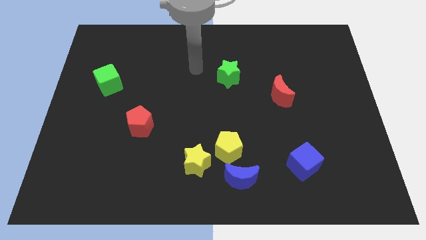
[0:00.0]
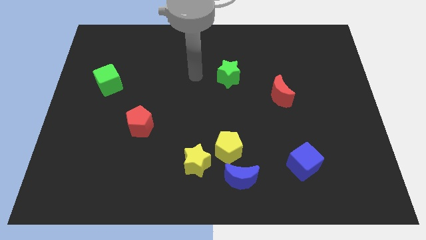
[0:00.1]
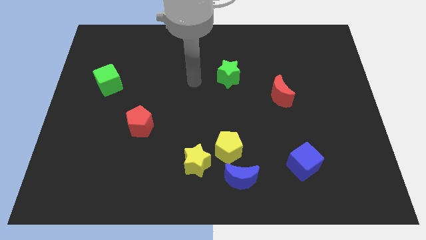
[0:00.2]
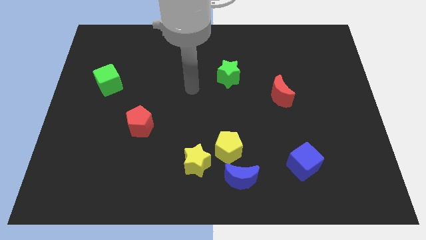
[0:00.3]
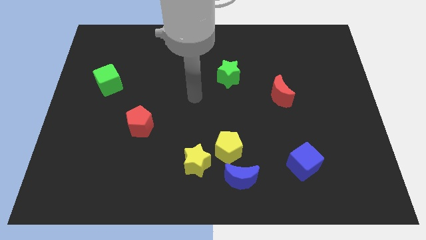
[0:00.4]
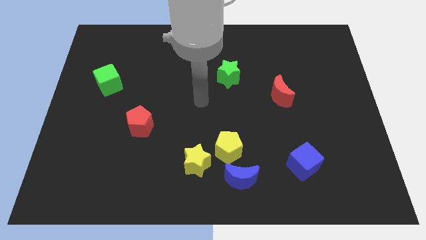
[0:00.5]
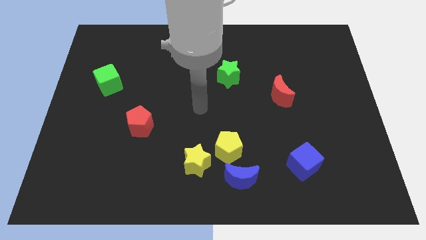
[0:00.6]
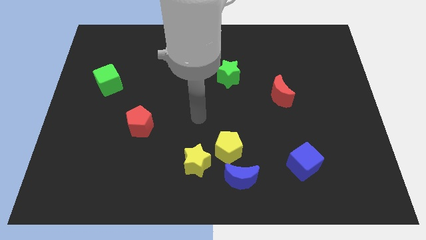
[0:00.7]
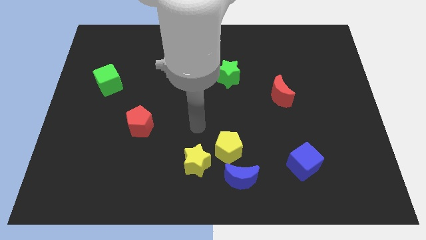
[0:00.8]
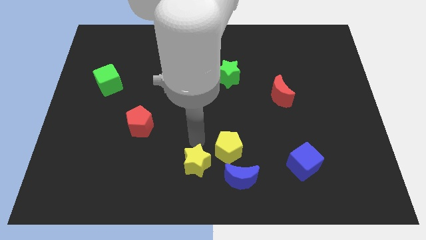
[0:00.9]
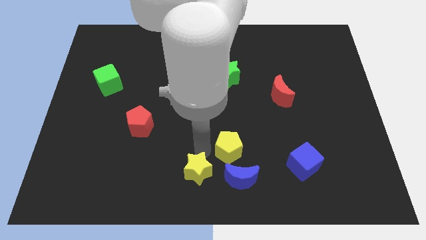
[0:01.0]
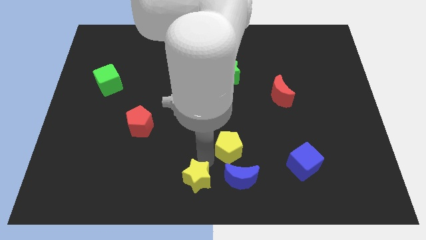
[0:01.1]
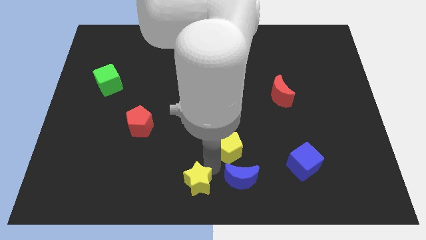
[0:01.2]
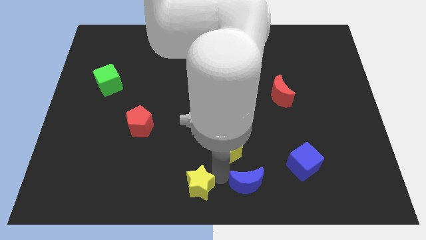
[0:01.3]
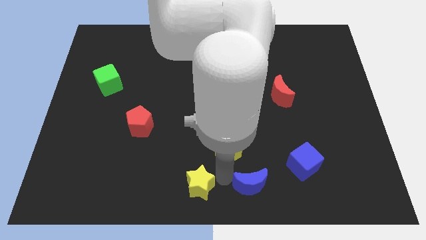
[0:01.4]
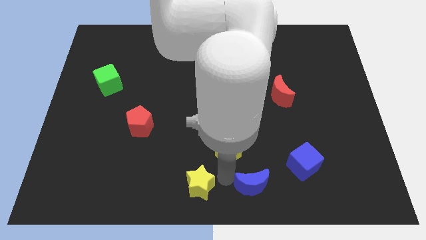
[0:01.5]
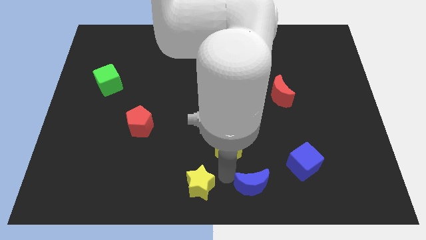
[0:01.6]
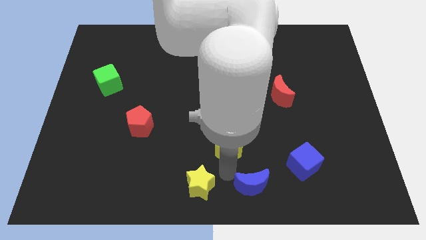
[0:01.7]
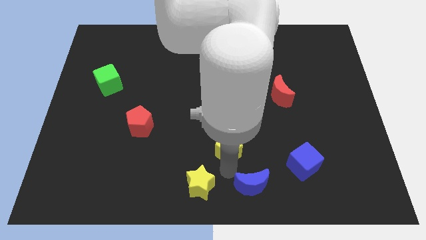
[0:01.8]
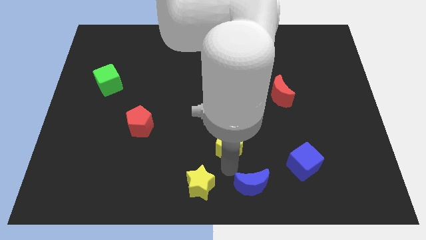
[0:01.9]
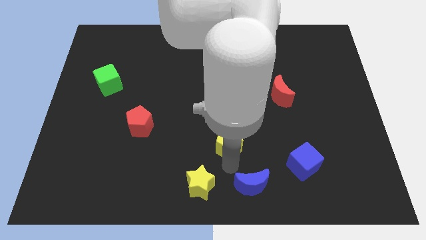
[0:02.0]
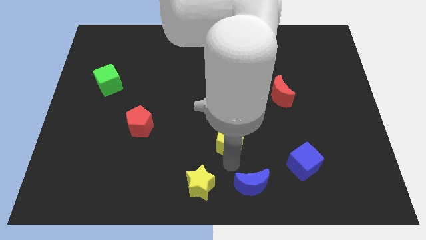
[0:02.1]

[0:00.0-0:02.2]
separate the yellow pentagon from the blue moon and yellow star

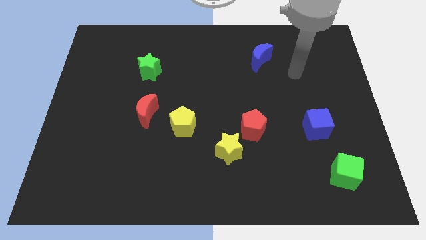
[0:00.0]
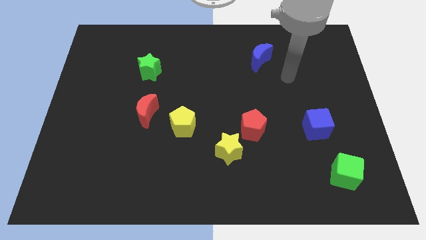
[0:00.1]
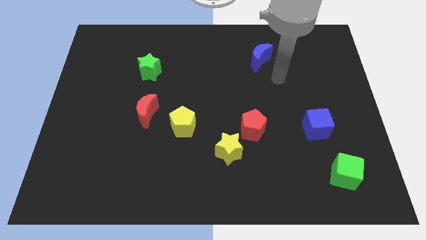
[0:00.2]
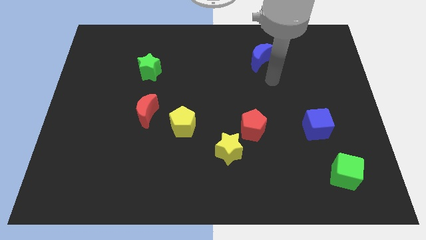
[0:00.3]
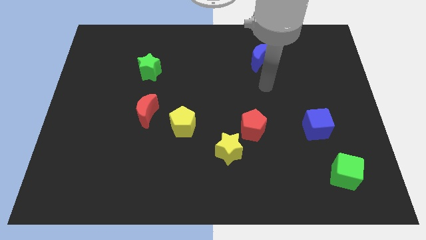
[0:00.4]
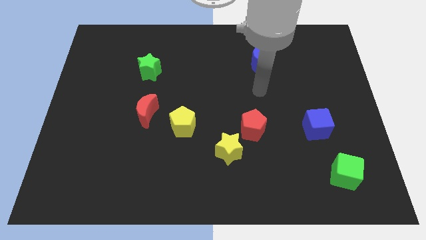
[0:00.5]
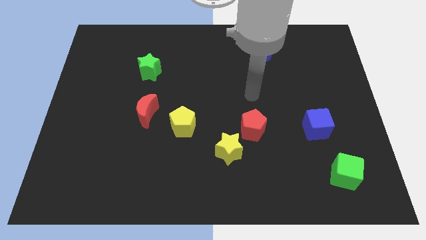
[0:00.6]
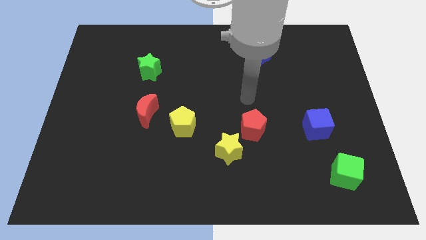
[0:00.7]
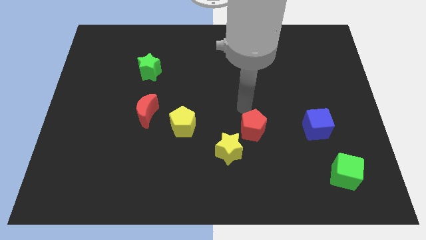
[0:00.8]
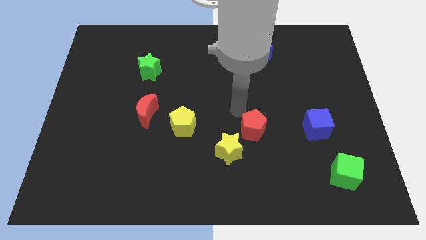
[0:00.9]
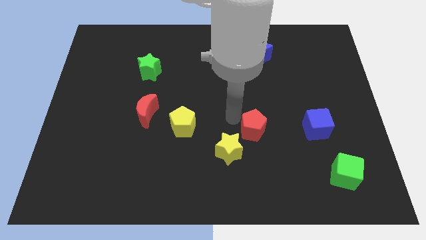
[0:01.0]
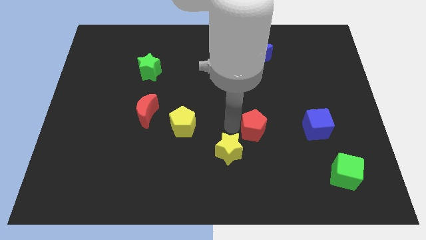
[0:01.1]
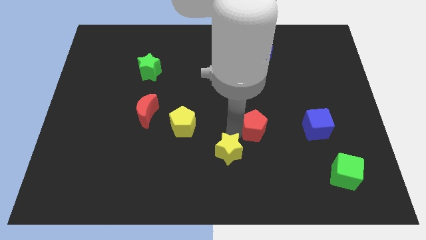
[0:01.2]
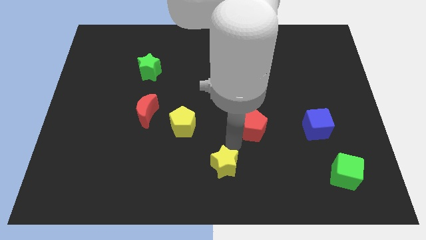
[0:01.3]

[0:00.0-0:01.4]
move the red pentagon away from the yellow star

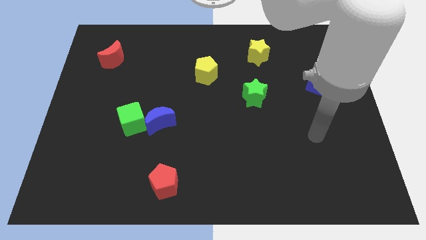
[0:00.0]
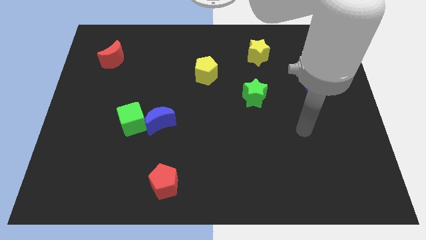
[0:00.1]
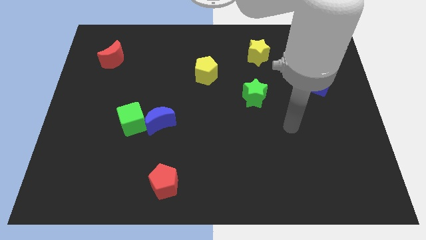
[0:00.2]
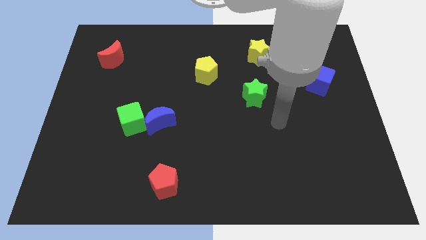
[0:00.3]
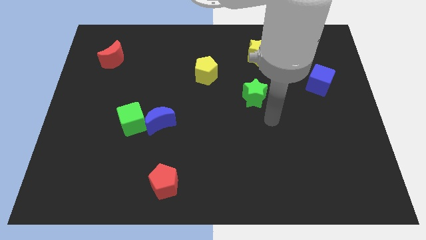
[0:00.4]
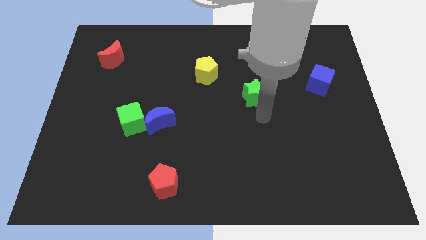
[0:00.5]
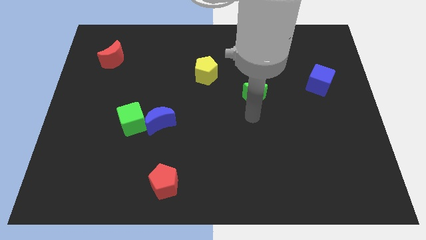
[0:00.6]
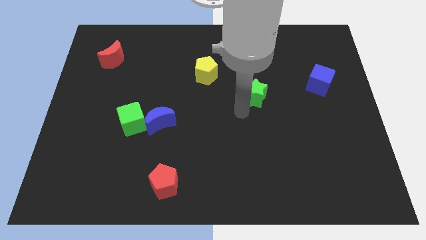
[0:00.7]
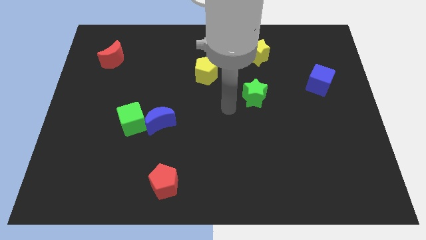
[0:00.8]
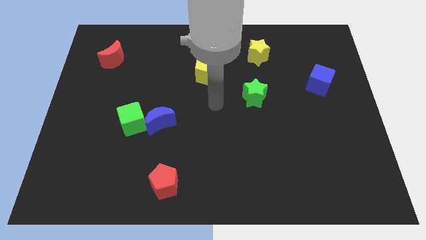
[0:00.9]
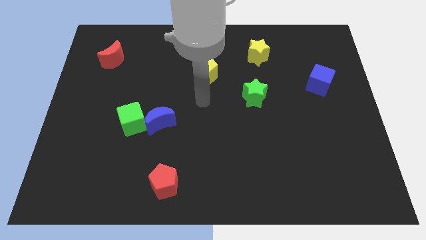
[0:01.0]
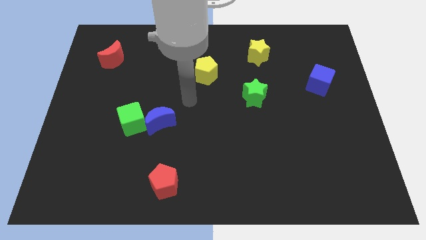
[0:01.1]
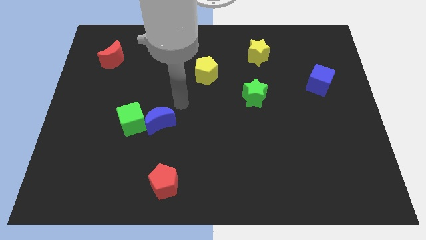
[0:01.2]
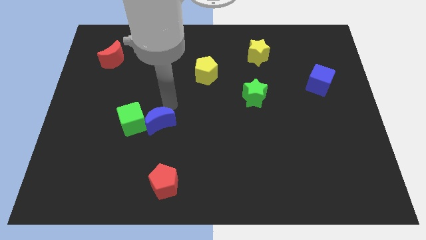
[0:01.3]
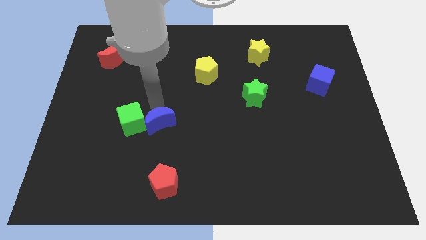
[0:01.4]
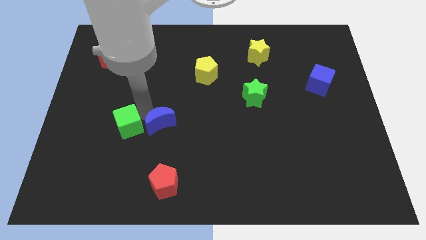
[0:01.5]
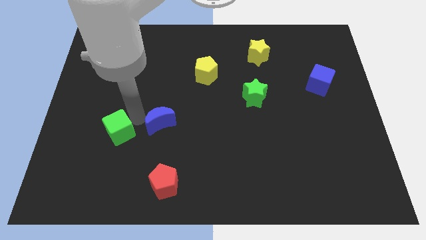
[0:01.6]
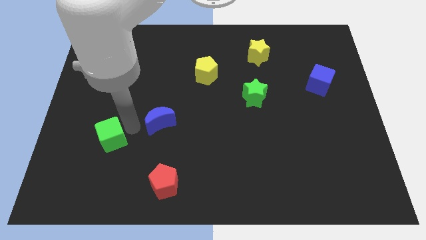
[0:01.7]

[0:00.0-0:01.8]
move the blue moon away from the green cube

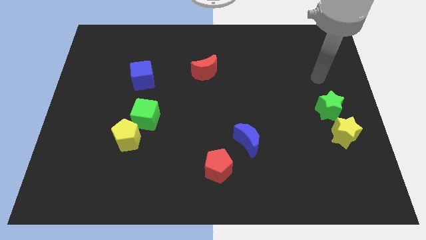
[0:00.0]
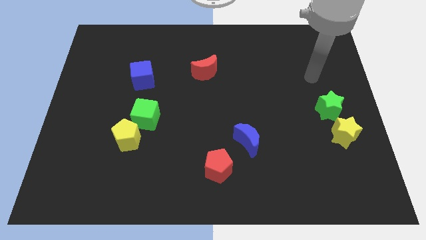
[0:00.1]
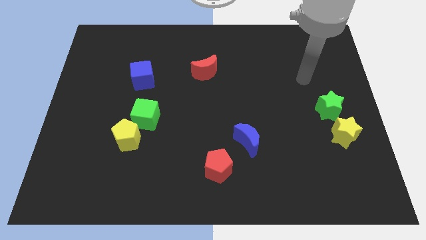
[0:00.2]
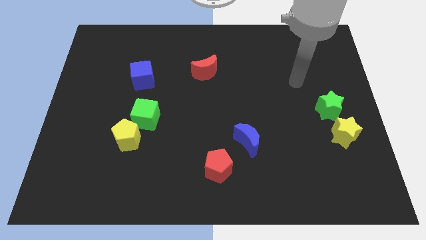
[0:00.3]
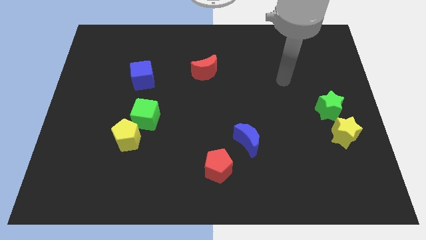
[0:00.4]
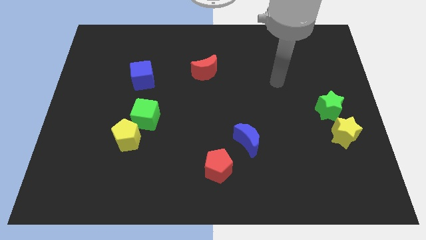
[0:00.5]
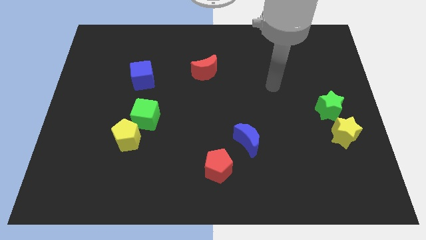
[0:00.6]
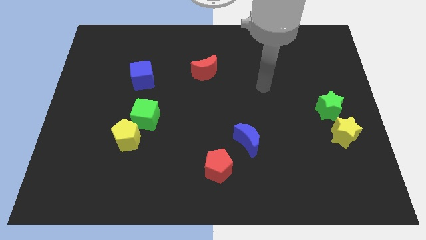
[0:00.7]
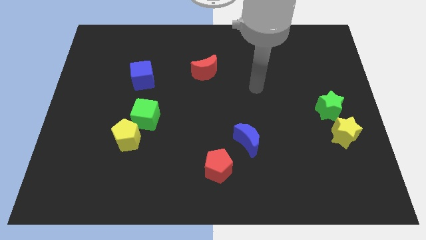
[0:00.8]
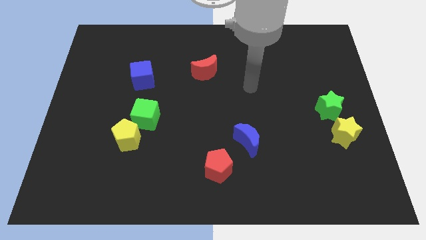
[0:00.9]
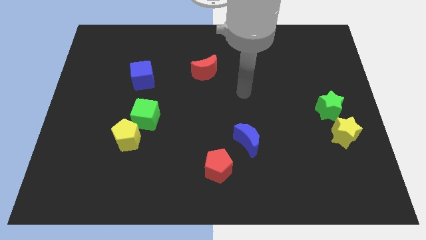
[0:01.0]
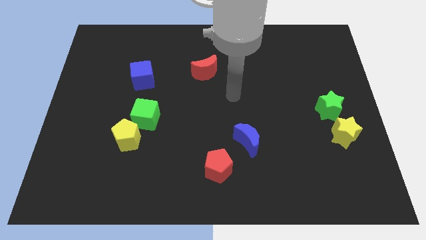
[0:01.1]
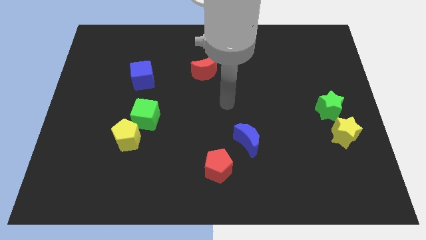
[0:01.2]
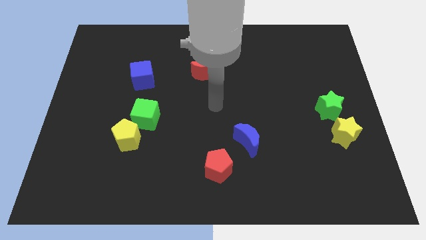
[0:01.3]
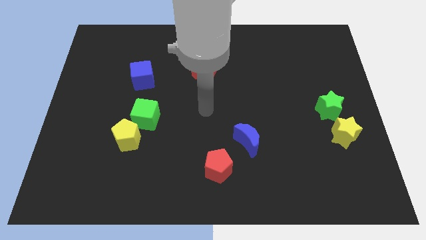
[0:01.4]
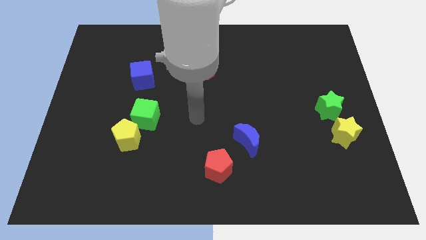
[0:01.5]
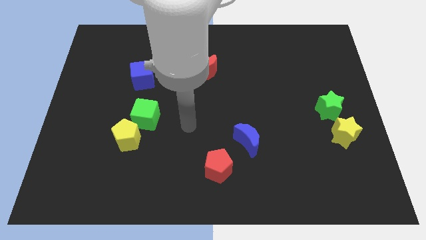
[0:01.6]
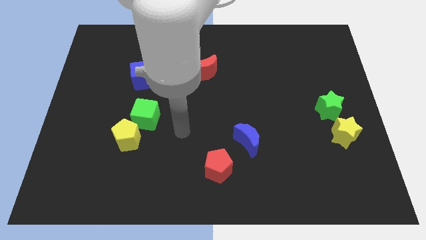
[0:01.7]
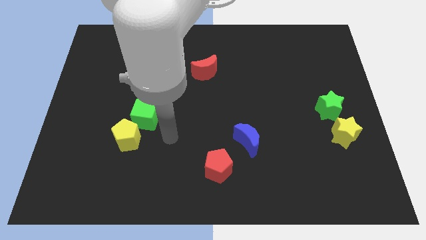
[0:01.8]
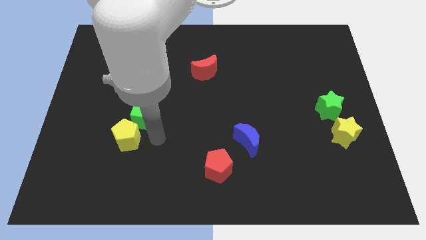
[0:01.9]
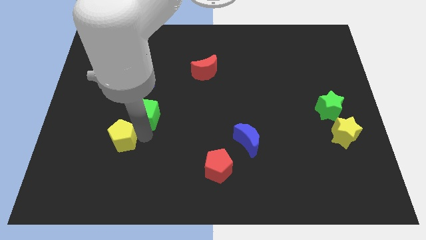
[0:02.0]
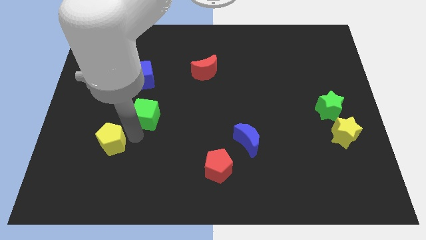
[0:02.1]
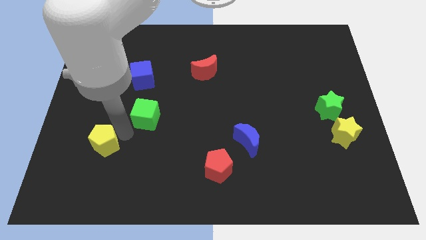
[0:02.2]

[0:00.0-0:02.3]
separate the green cube from the yellow pentagon

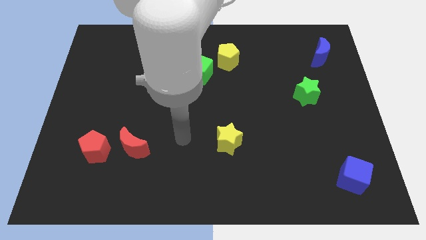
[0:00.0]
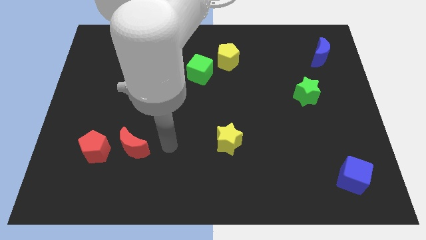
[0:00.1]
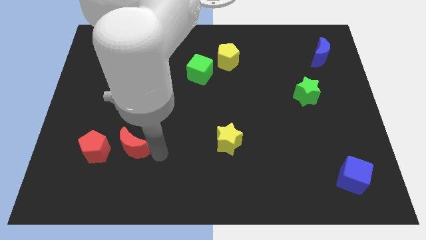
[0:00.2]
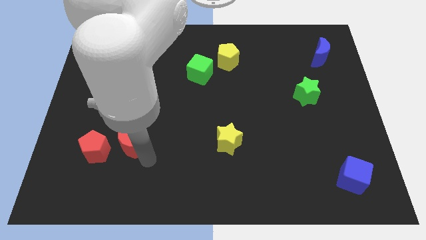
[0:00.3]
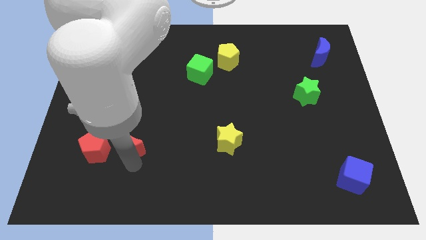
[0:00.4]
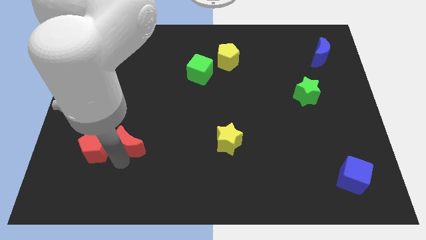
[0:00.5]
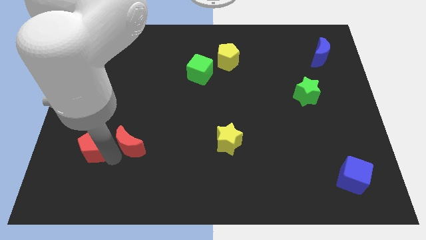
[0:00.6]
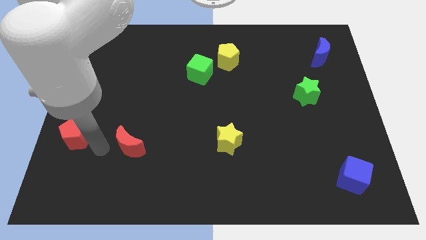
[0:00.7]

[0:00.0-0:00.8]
pull the red moon apart from the red pentagon

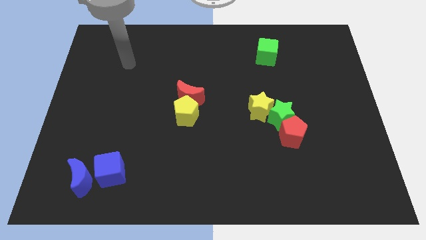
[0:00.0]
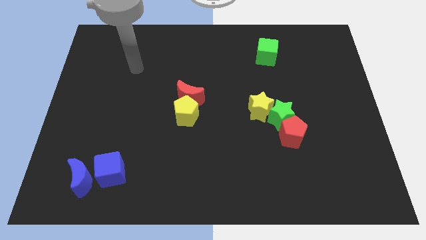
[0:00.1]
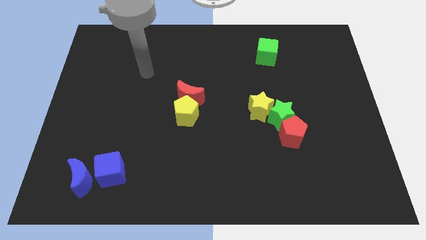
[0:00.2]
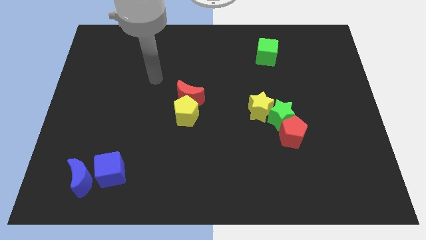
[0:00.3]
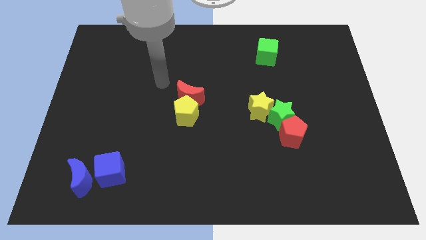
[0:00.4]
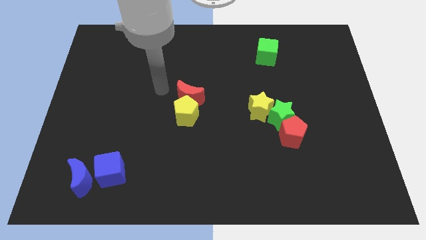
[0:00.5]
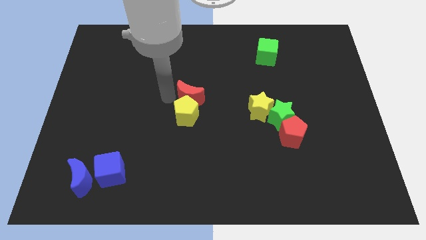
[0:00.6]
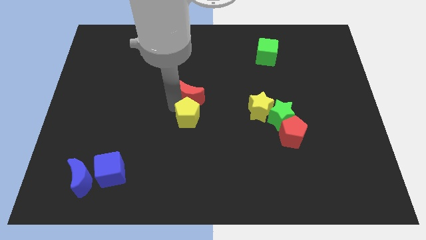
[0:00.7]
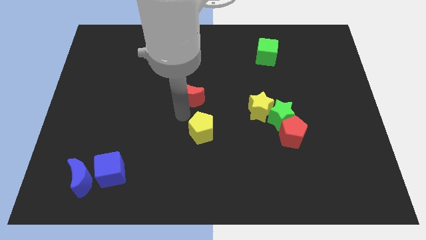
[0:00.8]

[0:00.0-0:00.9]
pull the red moon apart from the yellow pentagon

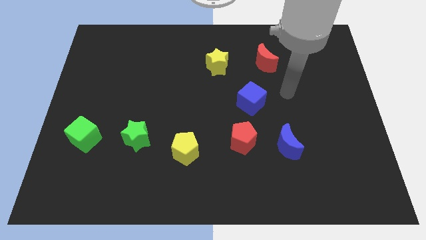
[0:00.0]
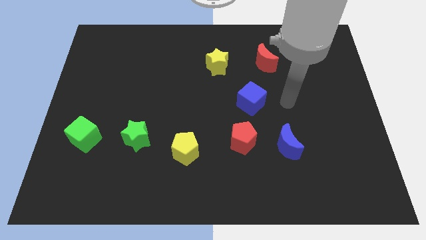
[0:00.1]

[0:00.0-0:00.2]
move the red pentagon away from the blue moon
